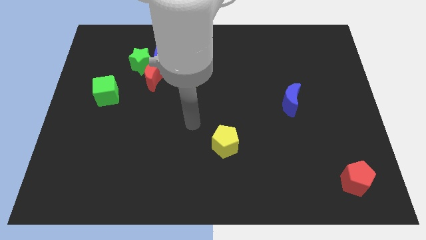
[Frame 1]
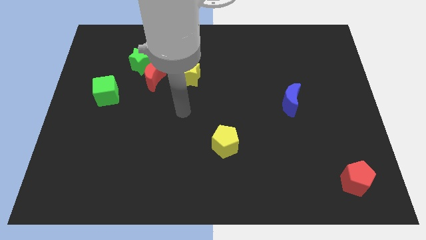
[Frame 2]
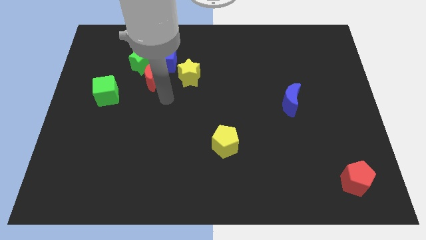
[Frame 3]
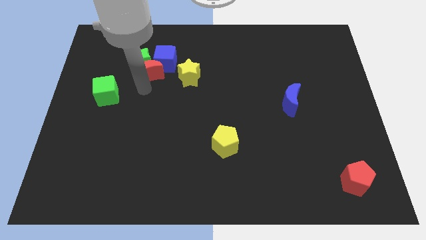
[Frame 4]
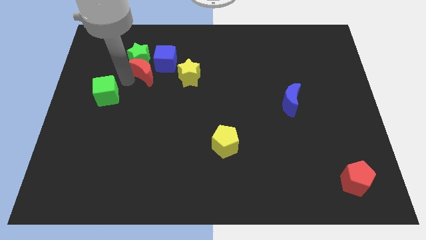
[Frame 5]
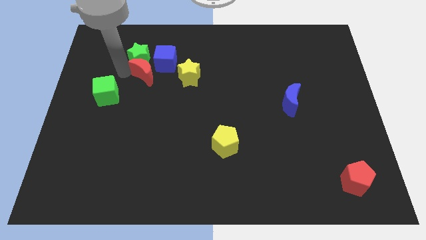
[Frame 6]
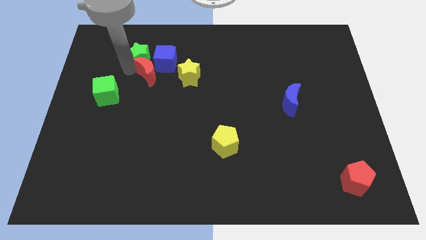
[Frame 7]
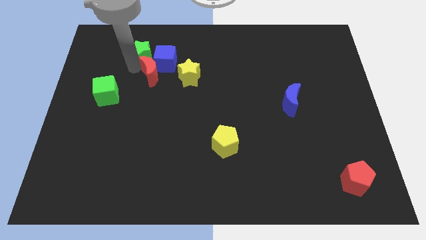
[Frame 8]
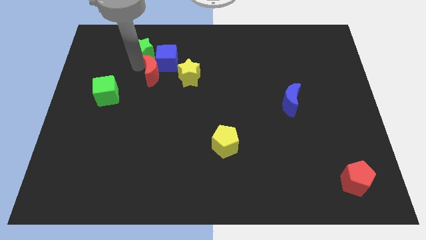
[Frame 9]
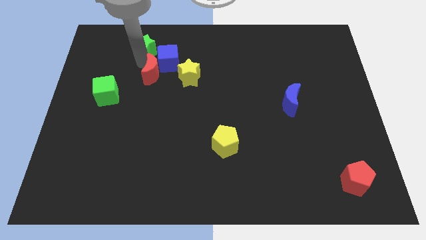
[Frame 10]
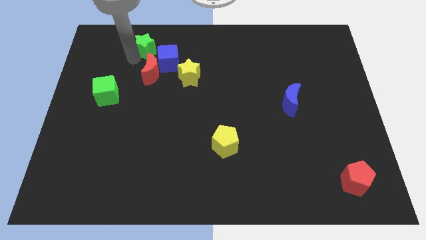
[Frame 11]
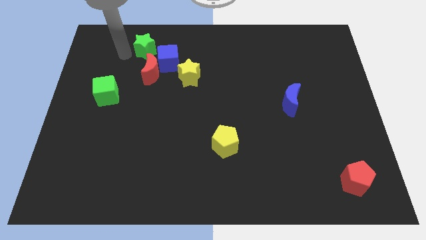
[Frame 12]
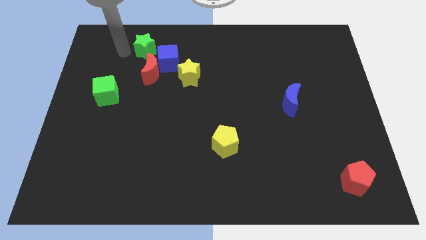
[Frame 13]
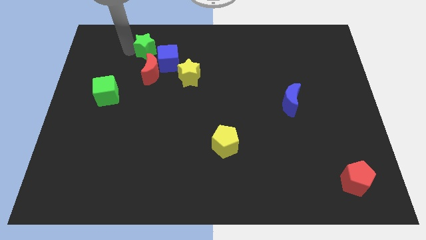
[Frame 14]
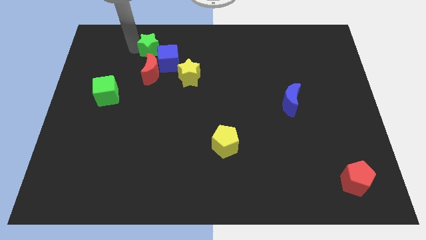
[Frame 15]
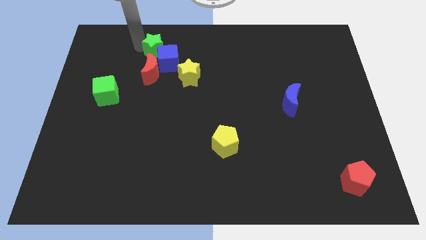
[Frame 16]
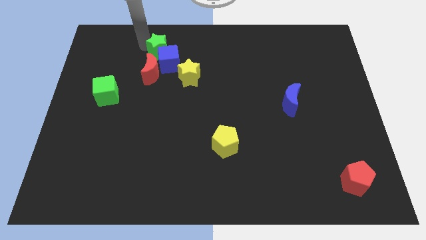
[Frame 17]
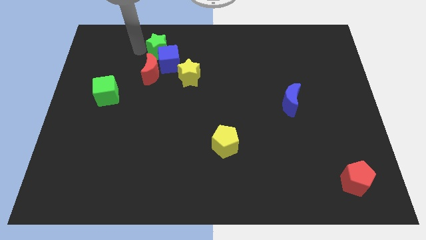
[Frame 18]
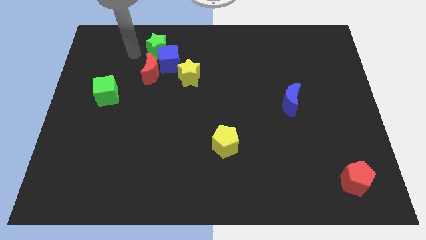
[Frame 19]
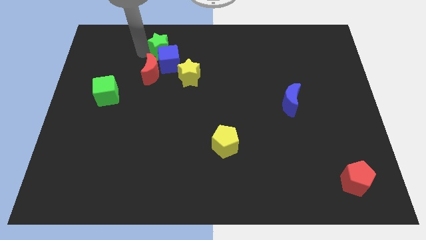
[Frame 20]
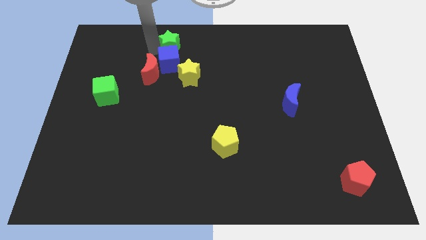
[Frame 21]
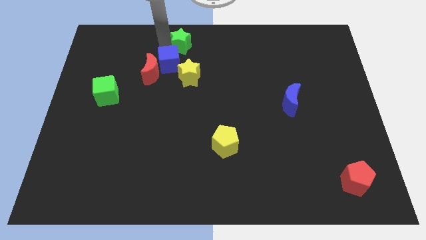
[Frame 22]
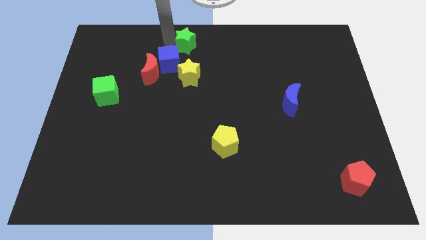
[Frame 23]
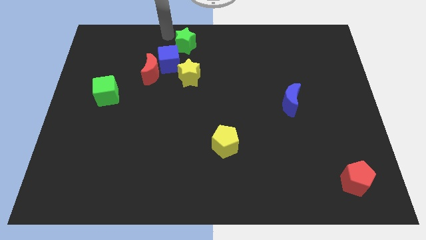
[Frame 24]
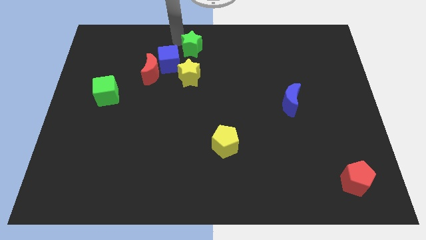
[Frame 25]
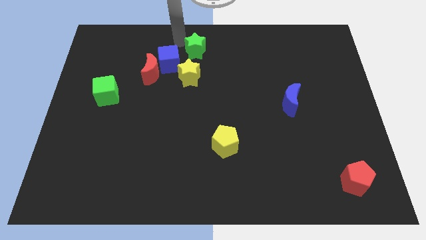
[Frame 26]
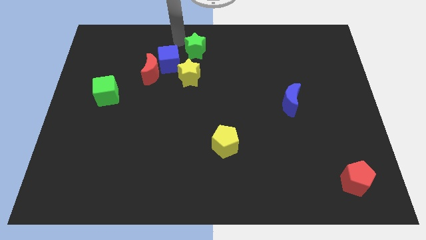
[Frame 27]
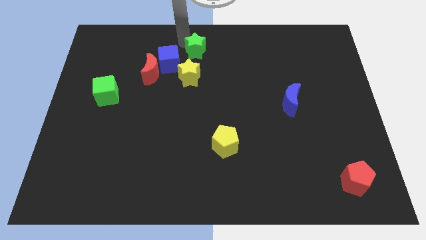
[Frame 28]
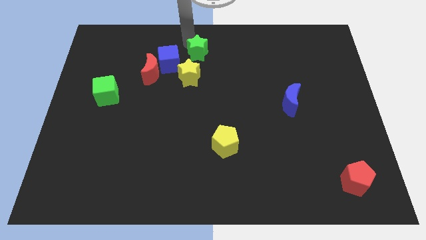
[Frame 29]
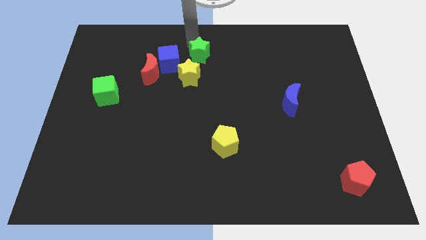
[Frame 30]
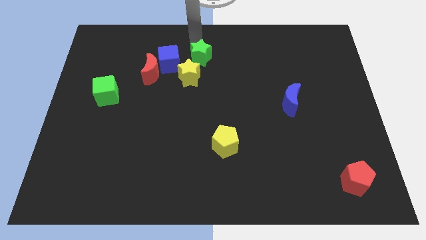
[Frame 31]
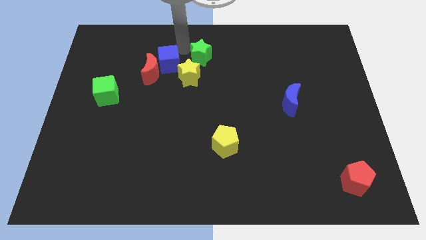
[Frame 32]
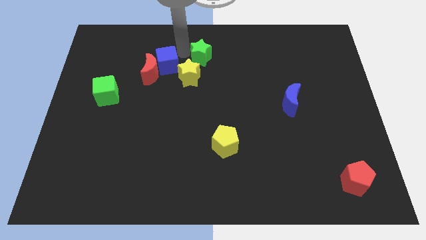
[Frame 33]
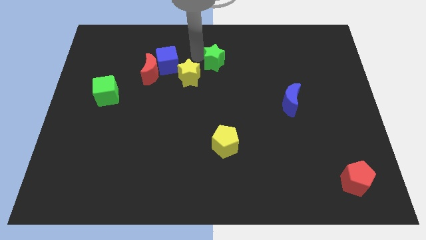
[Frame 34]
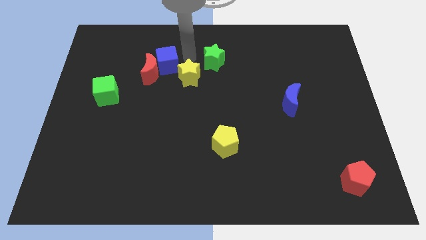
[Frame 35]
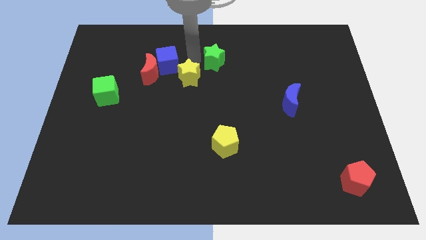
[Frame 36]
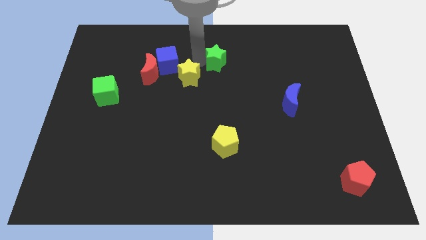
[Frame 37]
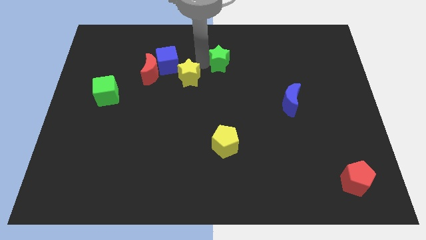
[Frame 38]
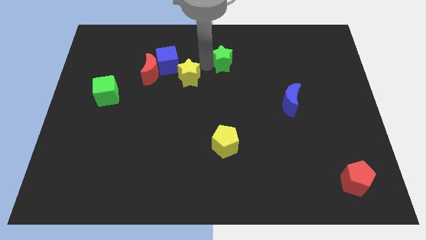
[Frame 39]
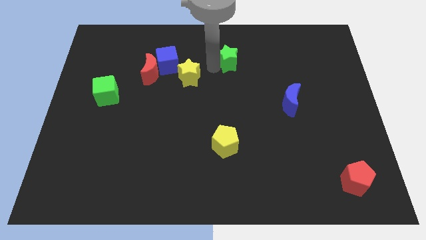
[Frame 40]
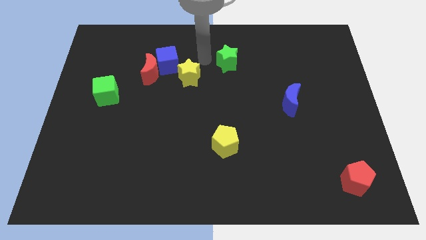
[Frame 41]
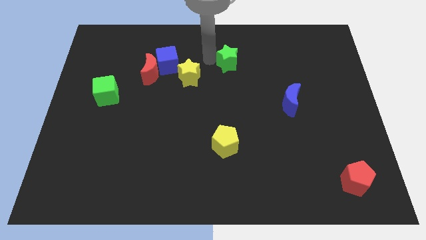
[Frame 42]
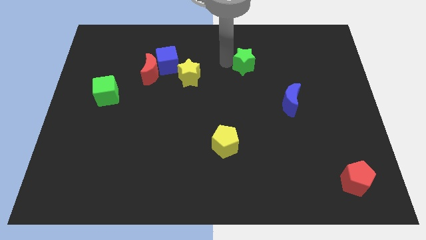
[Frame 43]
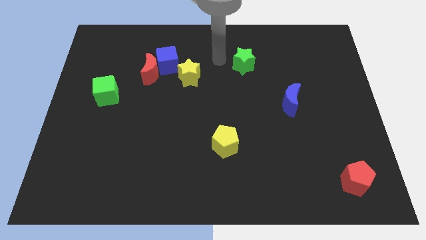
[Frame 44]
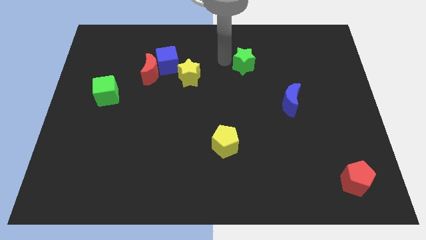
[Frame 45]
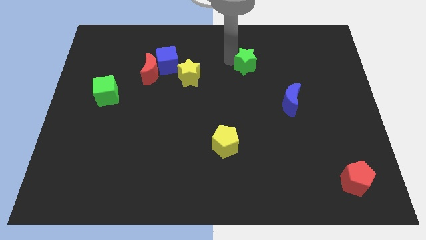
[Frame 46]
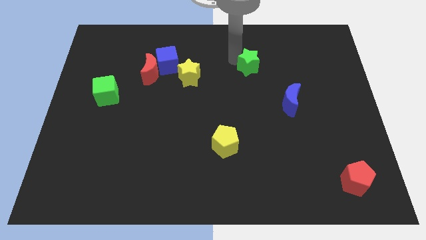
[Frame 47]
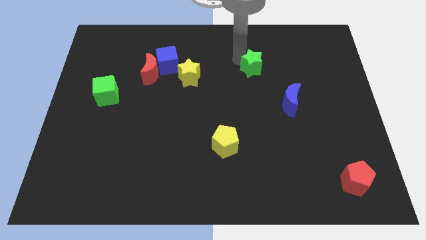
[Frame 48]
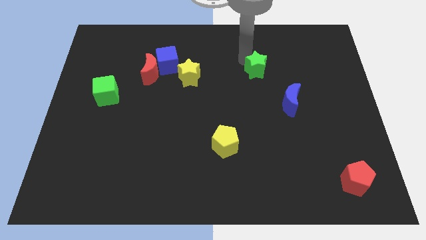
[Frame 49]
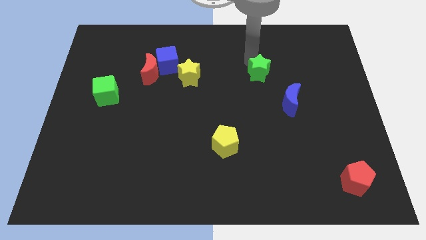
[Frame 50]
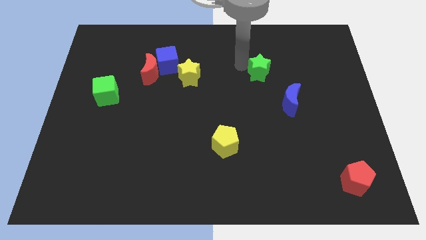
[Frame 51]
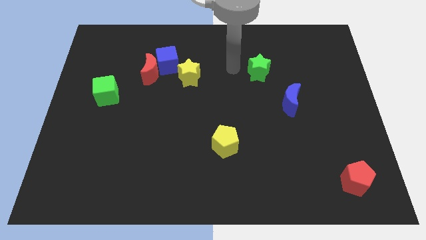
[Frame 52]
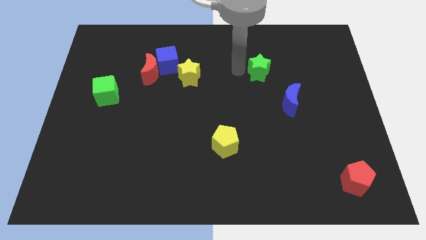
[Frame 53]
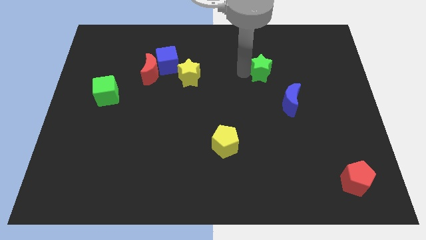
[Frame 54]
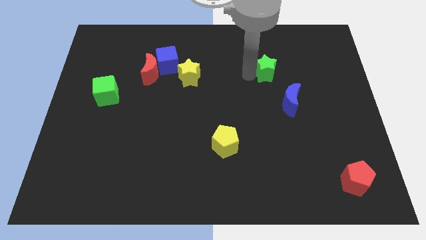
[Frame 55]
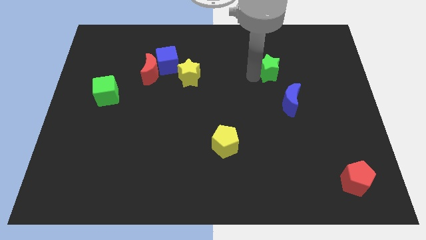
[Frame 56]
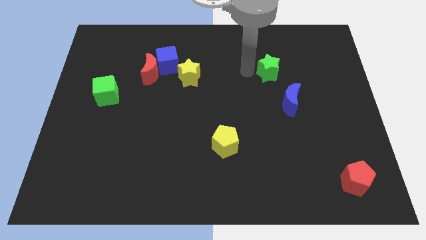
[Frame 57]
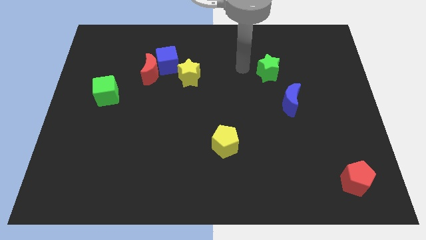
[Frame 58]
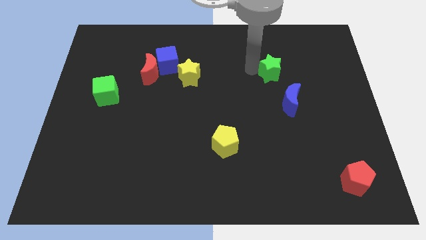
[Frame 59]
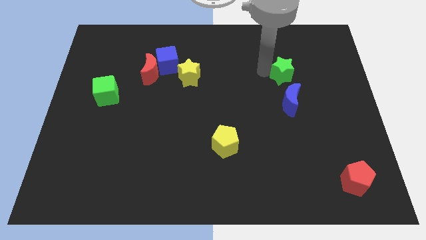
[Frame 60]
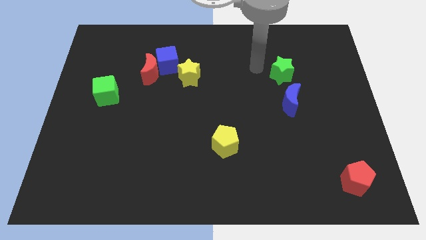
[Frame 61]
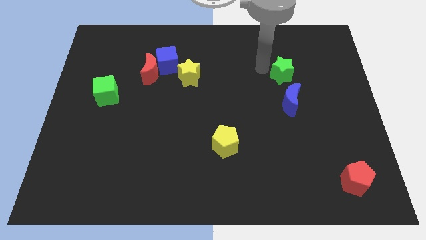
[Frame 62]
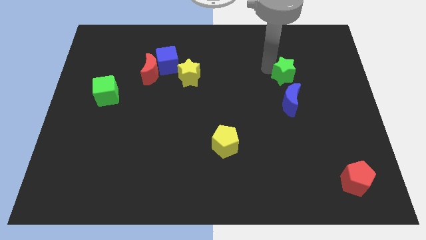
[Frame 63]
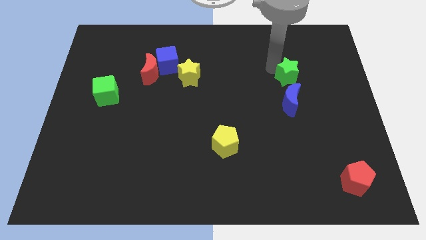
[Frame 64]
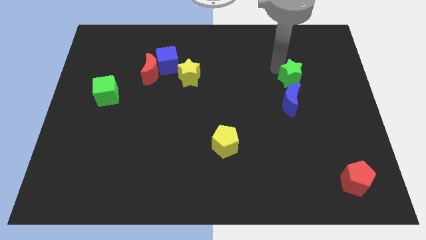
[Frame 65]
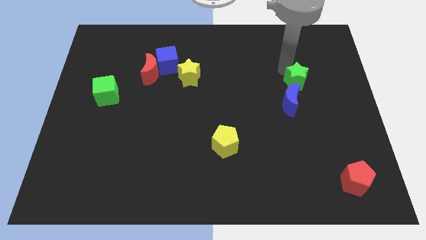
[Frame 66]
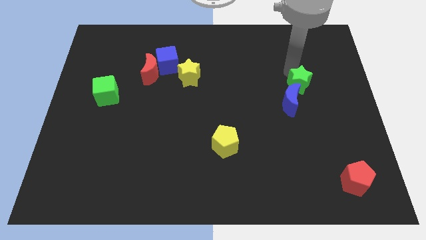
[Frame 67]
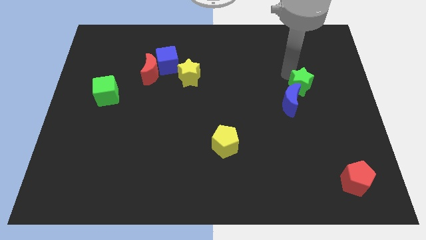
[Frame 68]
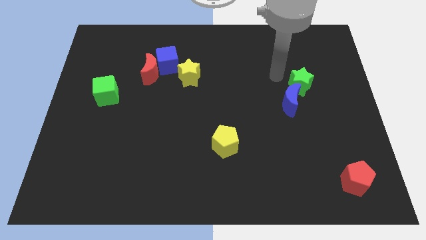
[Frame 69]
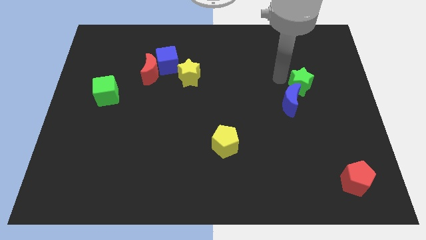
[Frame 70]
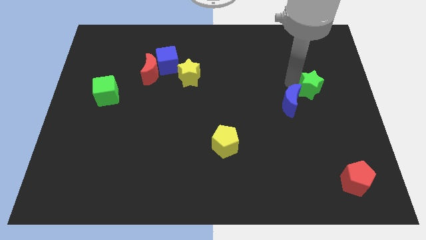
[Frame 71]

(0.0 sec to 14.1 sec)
put the green star to the right side of the blue moon
